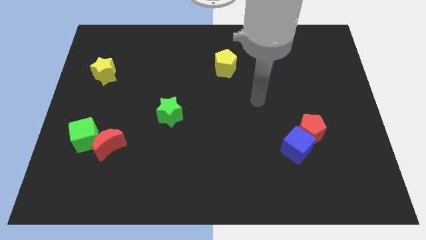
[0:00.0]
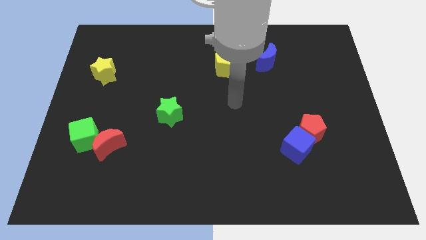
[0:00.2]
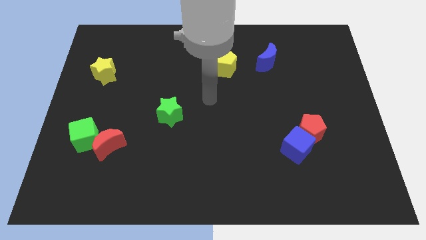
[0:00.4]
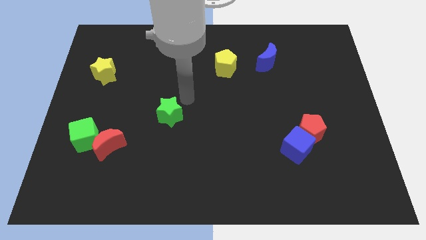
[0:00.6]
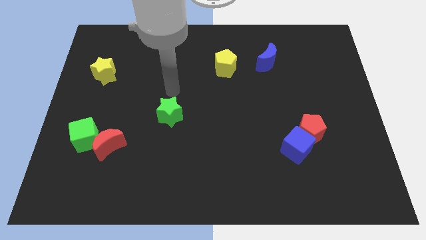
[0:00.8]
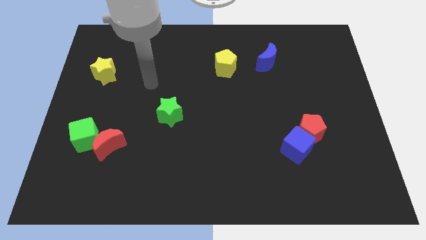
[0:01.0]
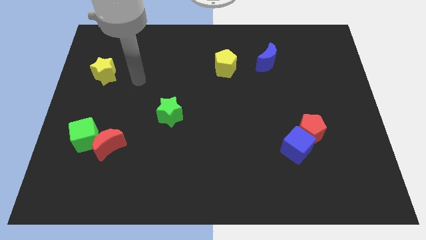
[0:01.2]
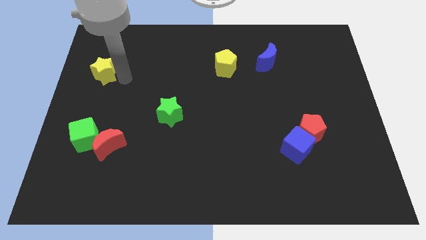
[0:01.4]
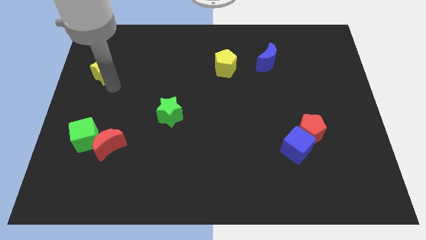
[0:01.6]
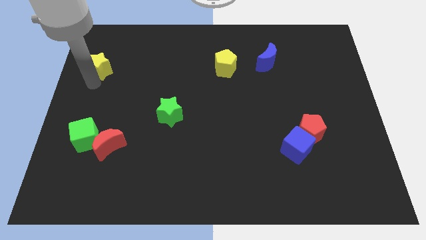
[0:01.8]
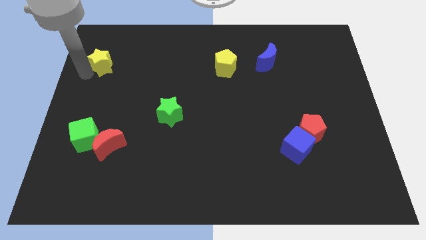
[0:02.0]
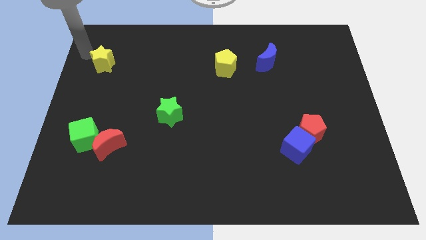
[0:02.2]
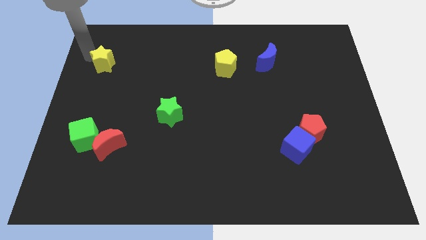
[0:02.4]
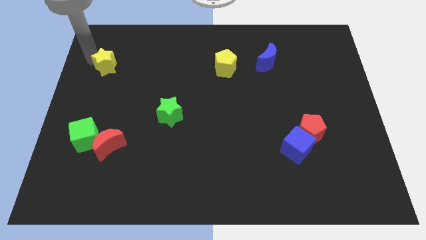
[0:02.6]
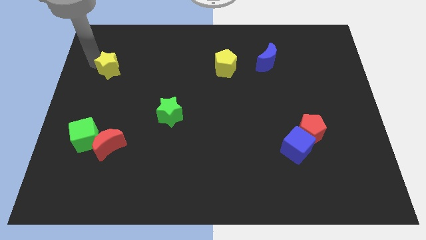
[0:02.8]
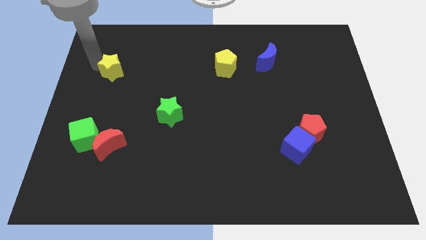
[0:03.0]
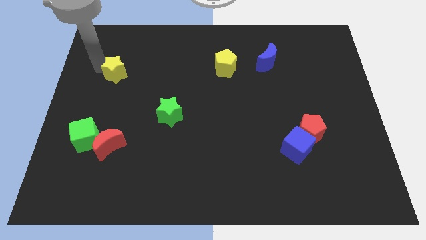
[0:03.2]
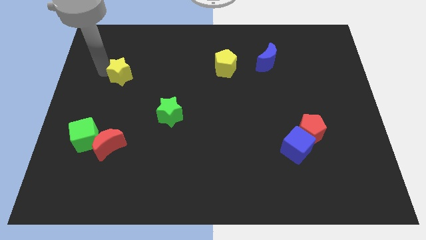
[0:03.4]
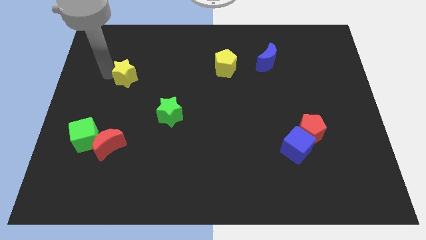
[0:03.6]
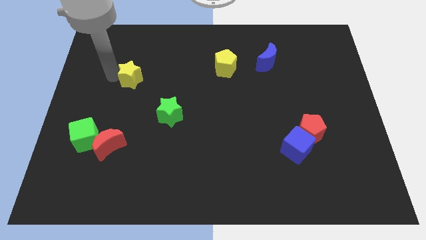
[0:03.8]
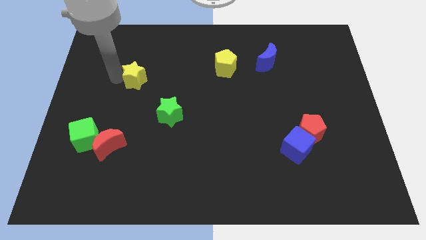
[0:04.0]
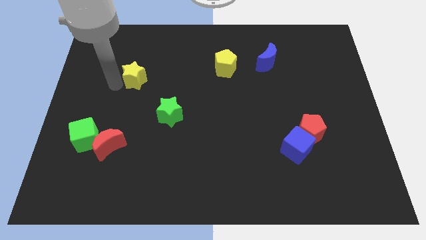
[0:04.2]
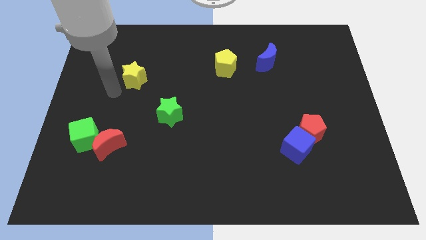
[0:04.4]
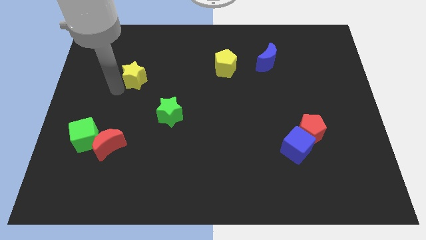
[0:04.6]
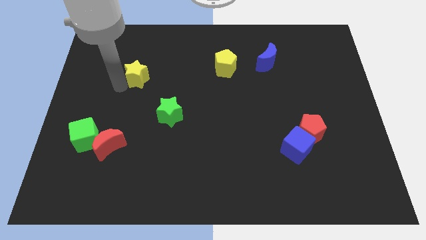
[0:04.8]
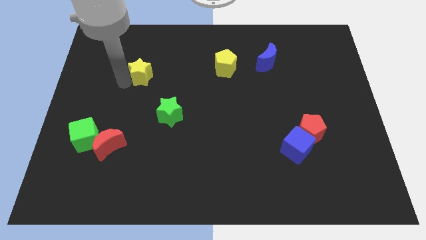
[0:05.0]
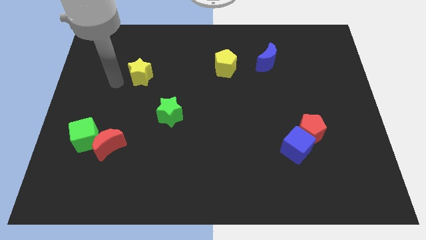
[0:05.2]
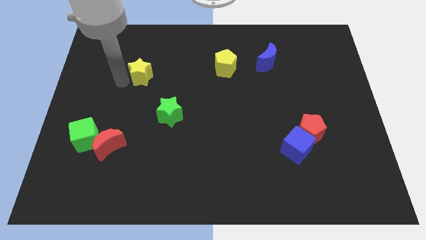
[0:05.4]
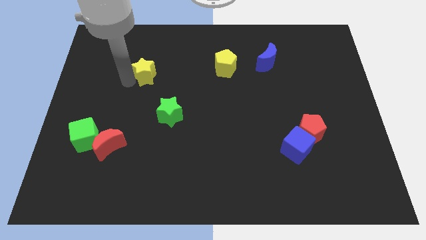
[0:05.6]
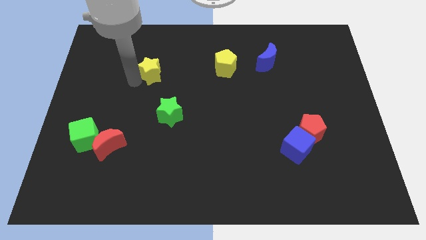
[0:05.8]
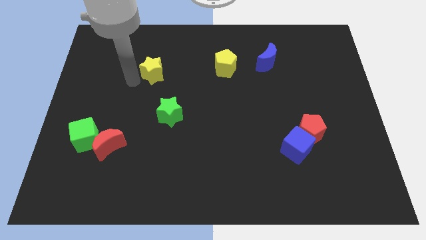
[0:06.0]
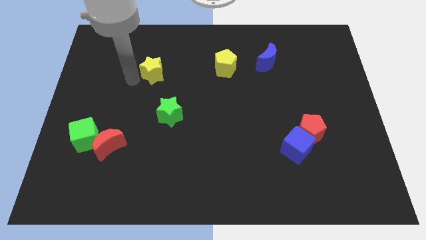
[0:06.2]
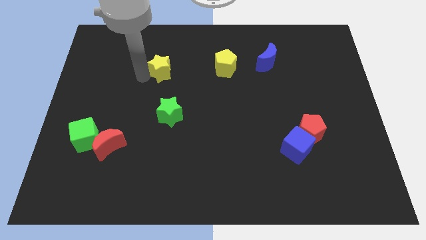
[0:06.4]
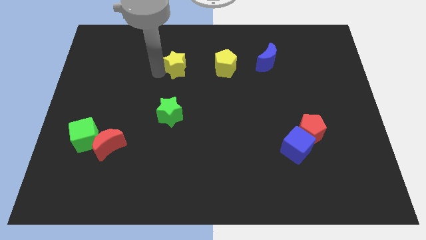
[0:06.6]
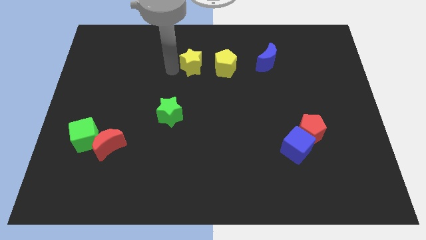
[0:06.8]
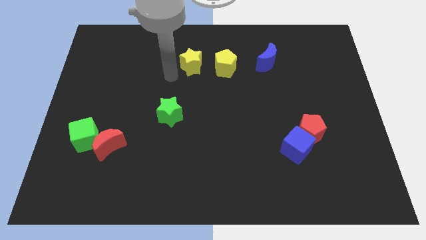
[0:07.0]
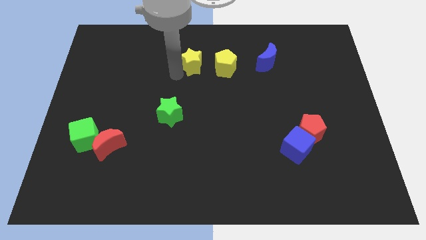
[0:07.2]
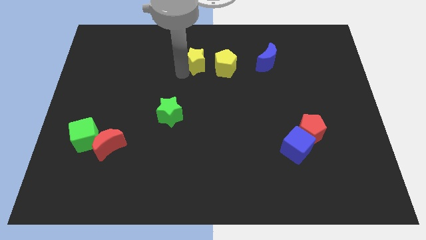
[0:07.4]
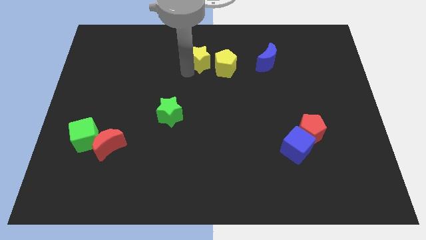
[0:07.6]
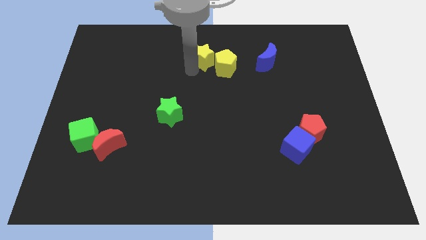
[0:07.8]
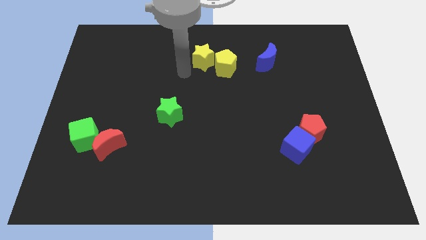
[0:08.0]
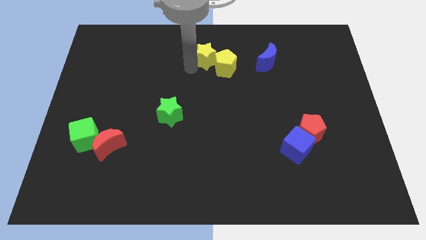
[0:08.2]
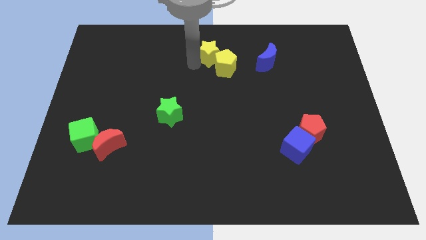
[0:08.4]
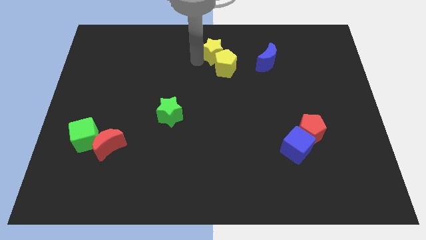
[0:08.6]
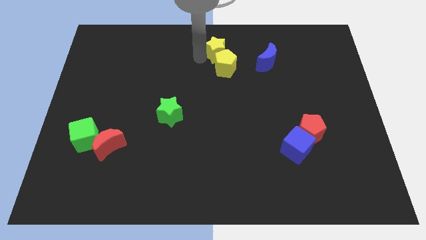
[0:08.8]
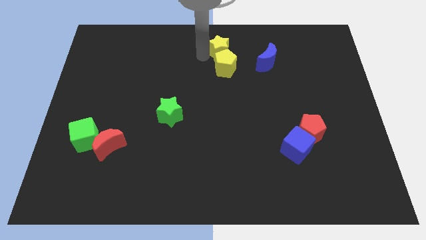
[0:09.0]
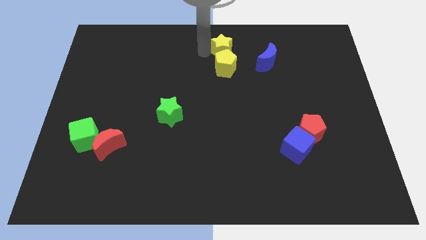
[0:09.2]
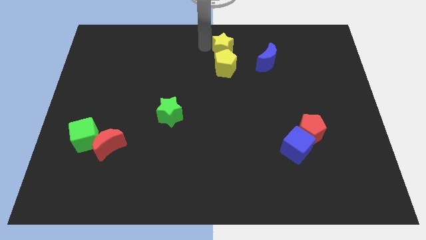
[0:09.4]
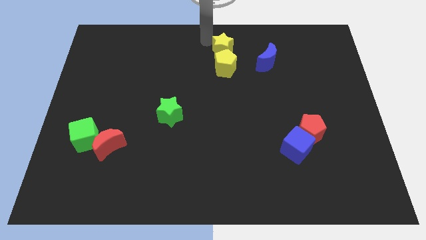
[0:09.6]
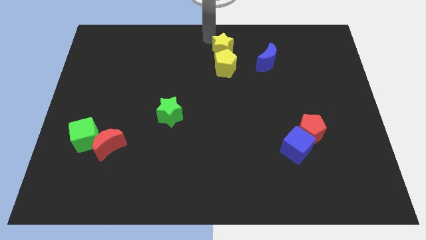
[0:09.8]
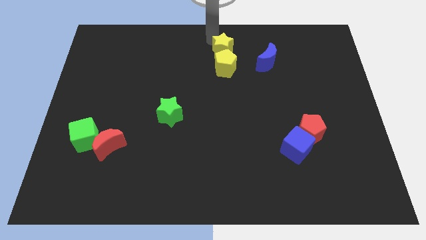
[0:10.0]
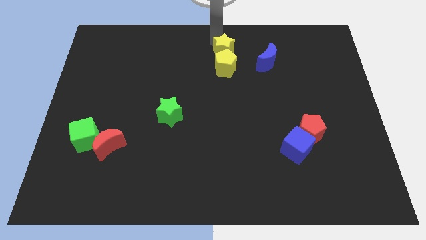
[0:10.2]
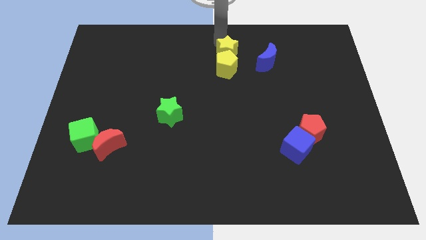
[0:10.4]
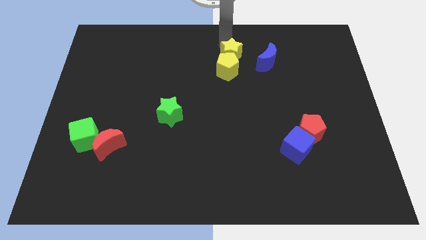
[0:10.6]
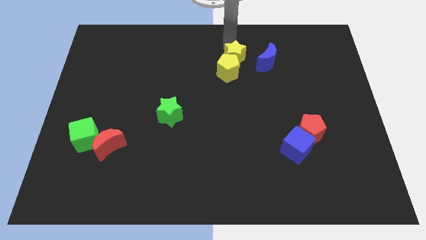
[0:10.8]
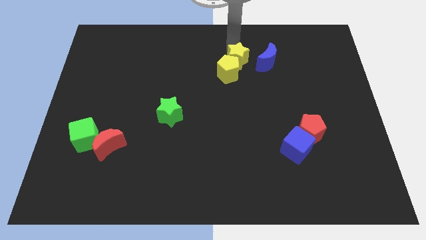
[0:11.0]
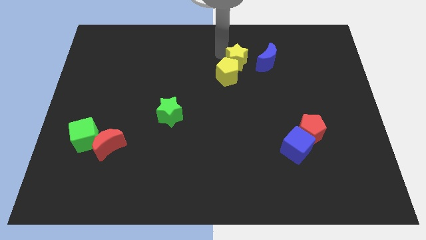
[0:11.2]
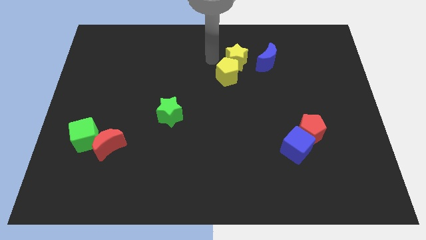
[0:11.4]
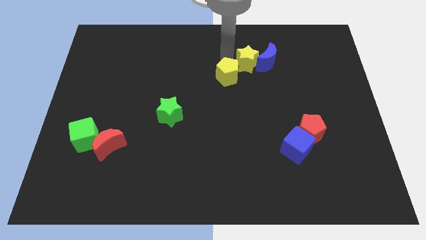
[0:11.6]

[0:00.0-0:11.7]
push the yellow star close to the blue moon

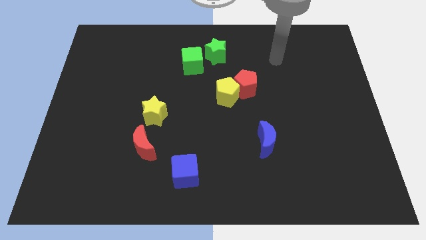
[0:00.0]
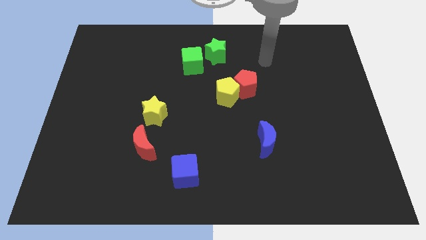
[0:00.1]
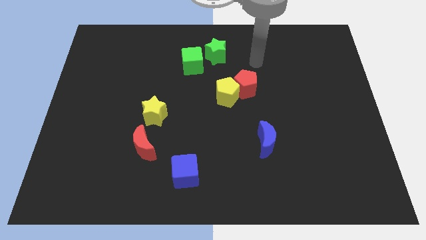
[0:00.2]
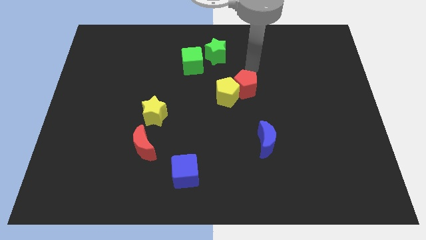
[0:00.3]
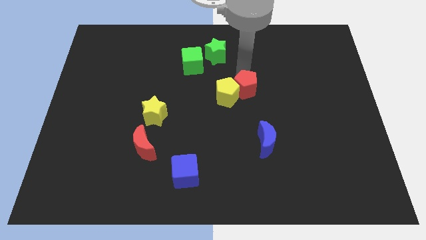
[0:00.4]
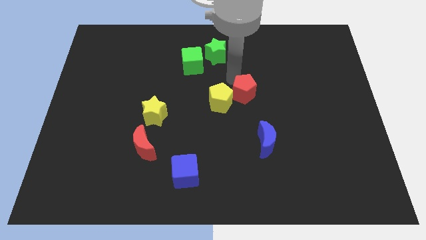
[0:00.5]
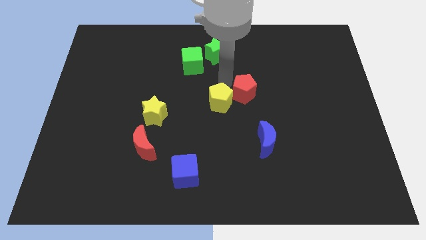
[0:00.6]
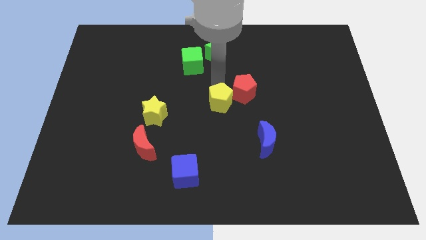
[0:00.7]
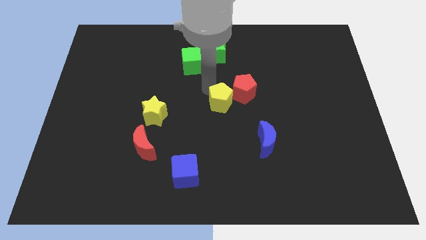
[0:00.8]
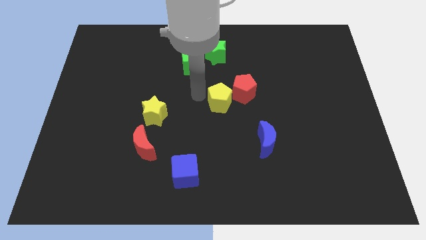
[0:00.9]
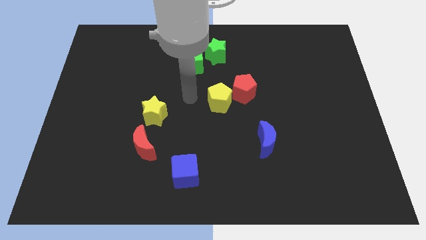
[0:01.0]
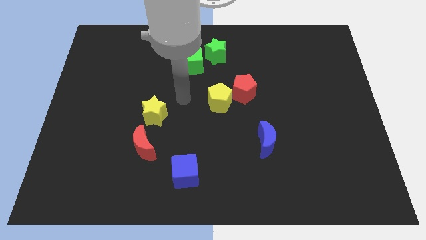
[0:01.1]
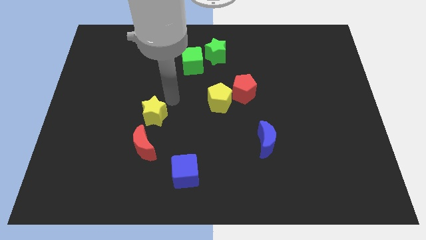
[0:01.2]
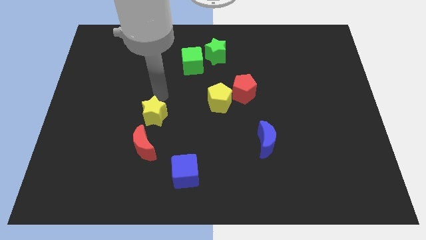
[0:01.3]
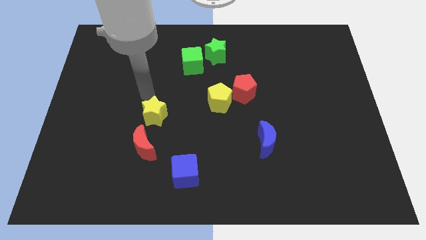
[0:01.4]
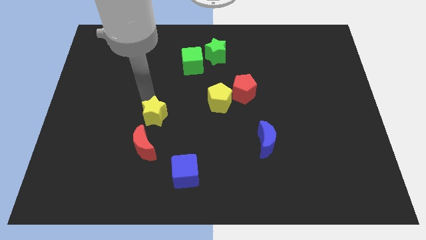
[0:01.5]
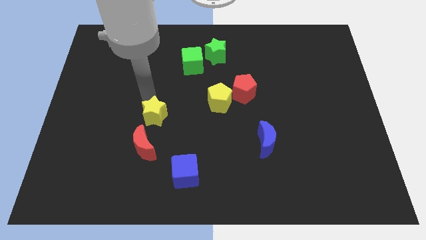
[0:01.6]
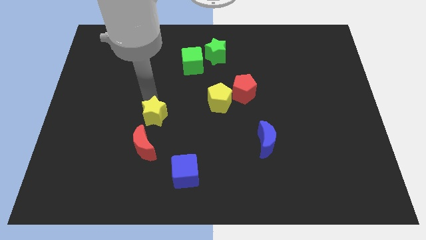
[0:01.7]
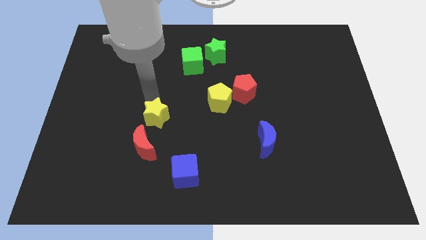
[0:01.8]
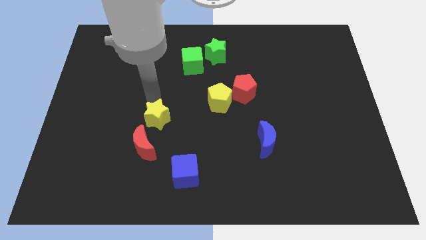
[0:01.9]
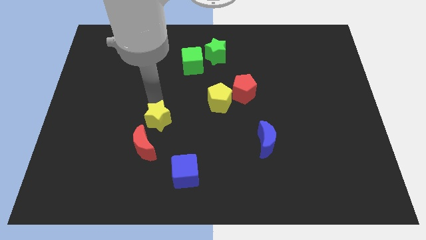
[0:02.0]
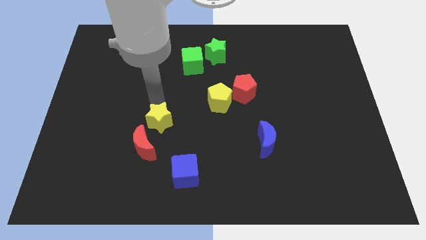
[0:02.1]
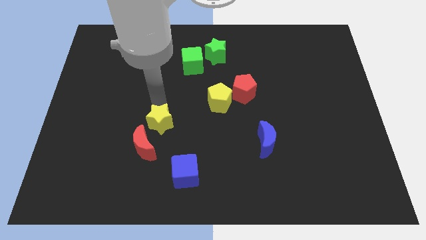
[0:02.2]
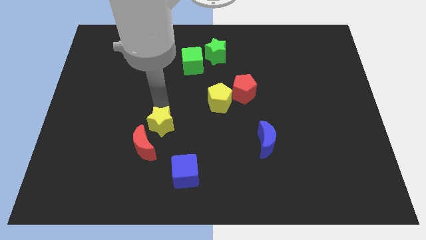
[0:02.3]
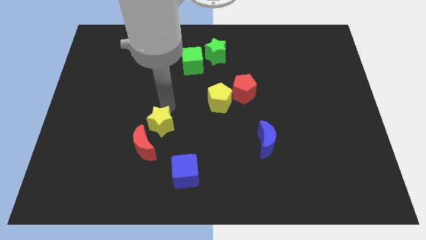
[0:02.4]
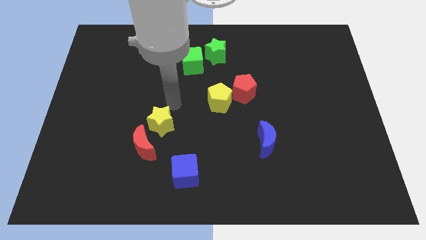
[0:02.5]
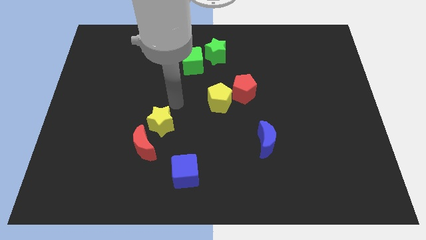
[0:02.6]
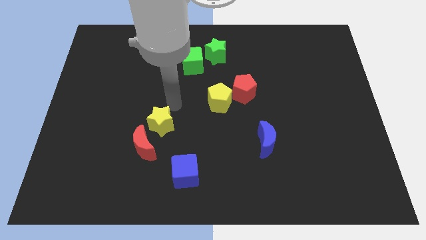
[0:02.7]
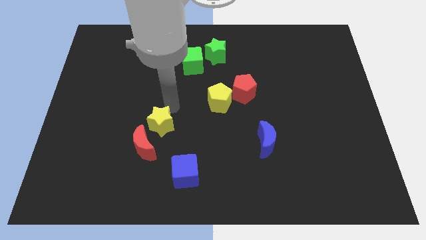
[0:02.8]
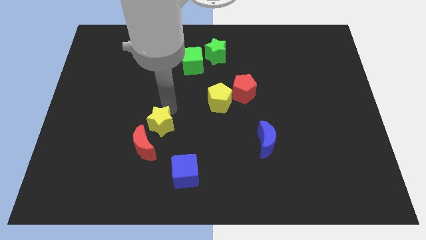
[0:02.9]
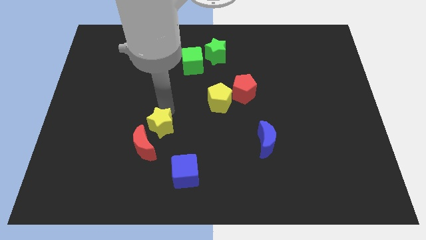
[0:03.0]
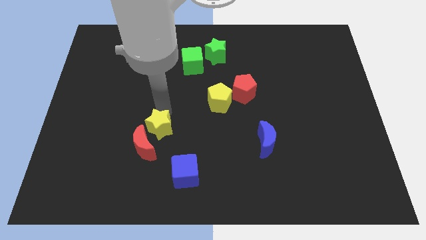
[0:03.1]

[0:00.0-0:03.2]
push the yellow star towards the red moon
